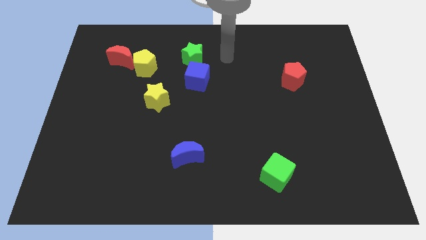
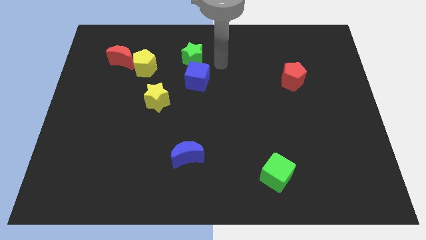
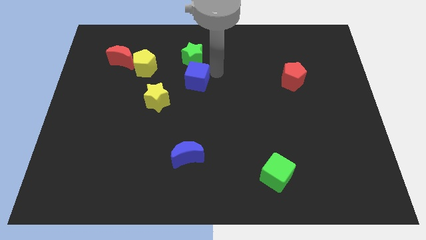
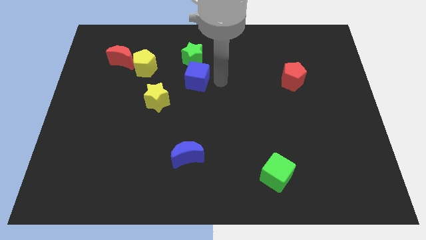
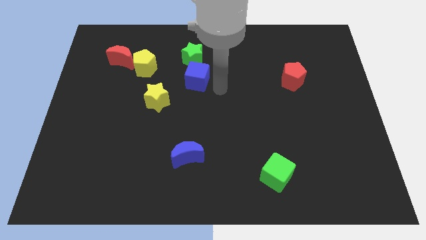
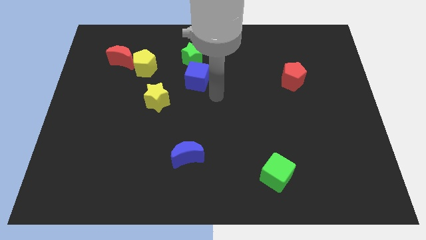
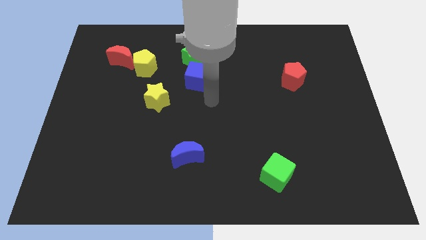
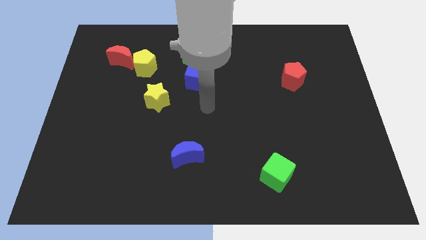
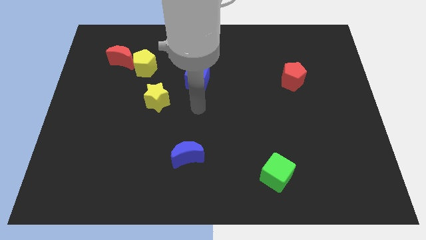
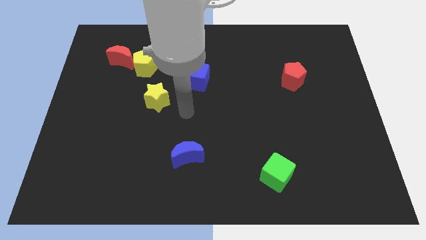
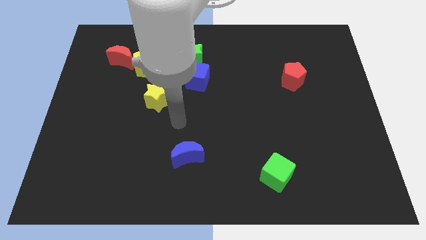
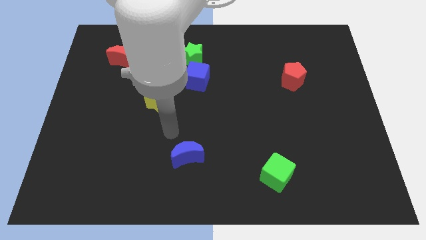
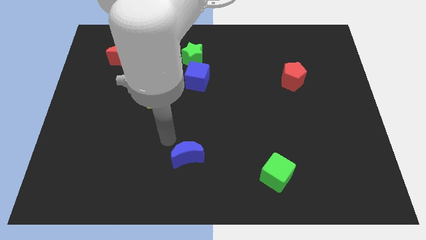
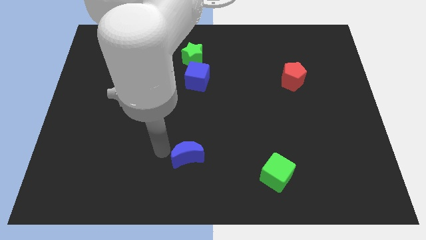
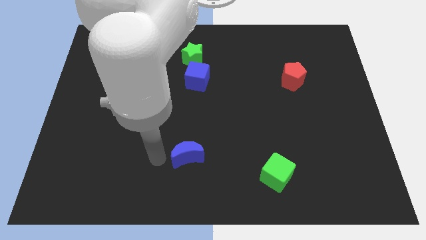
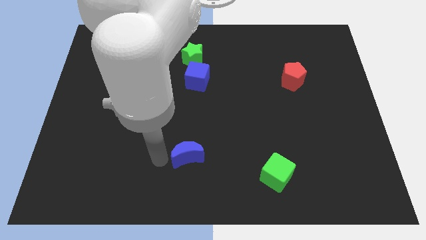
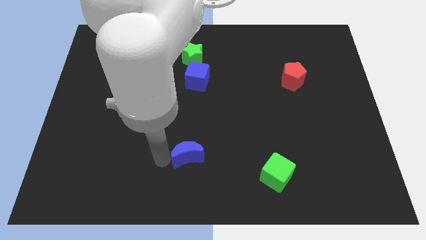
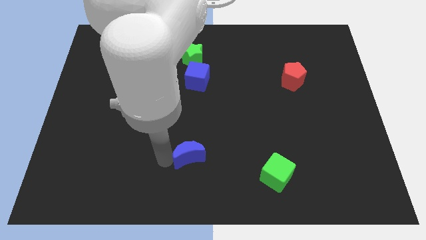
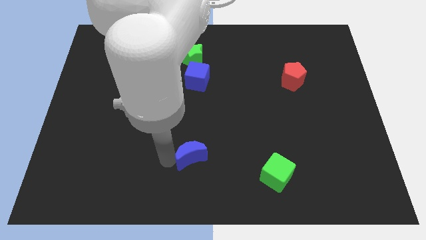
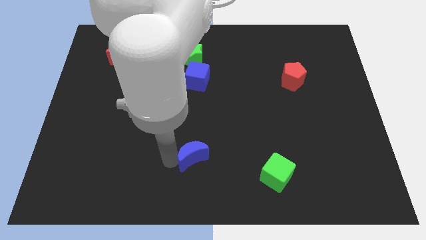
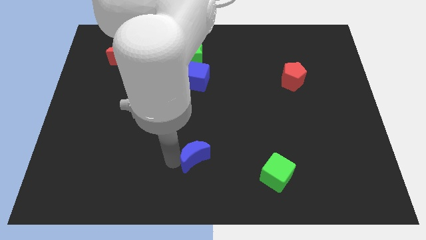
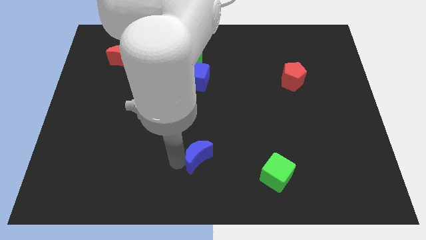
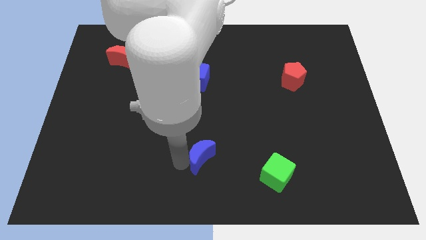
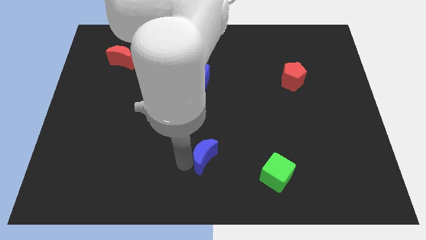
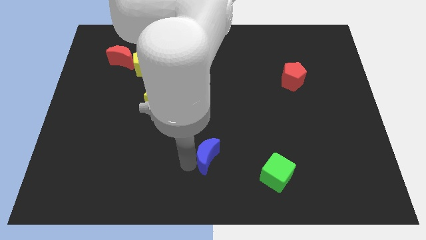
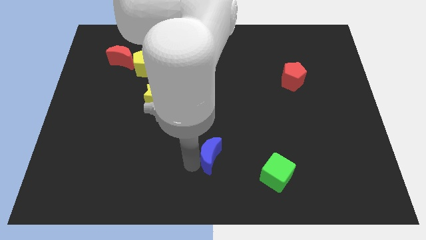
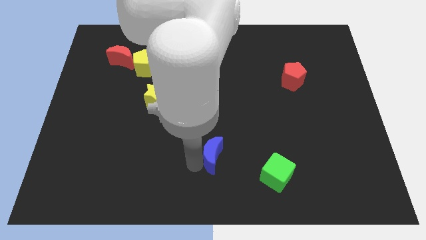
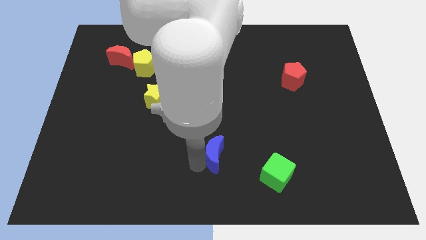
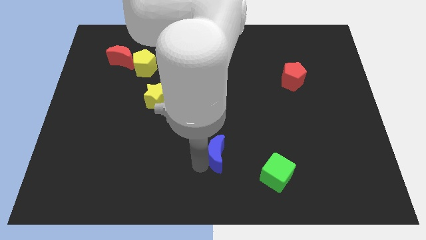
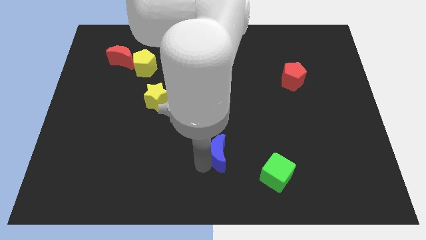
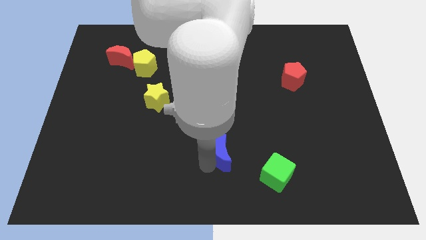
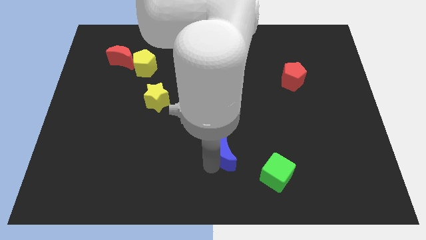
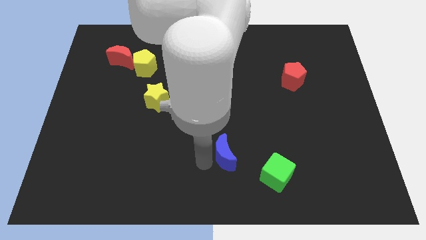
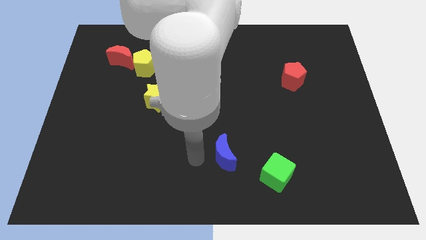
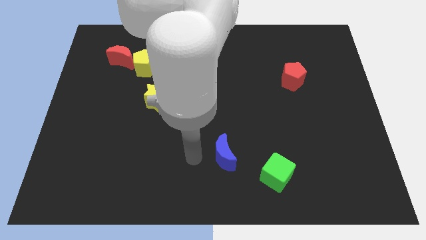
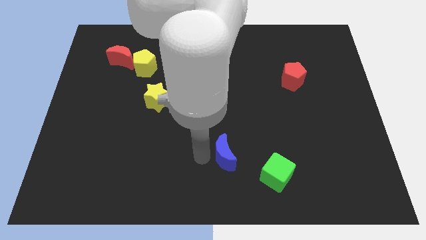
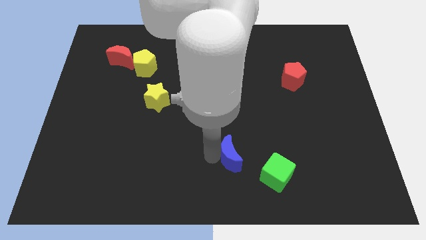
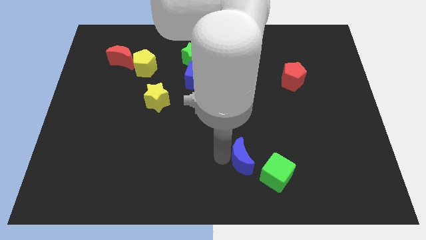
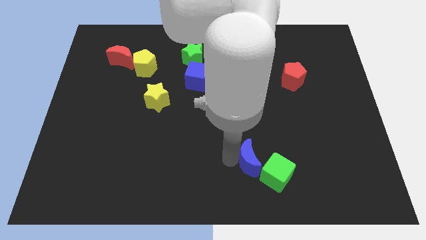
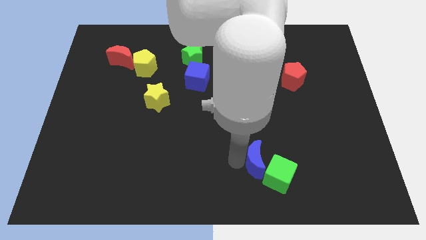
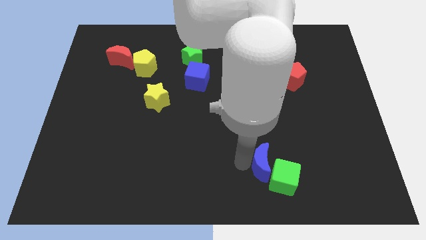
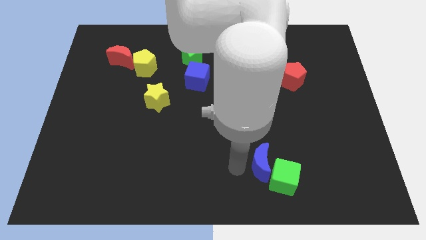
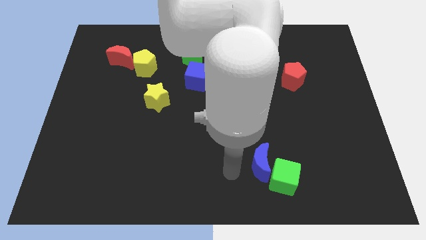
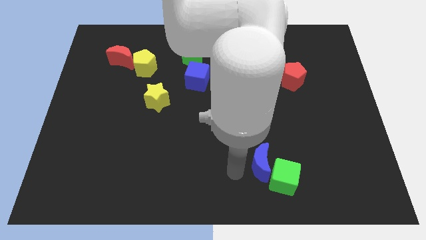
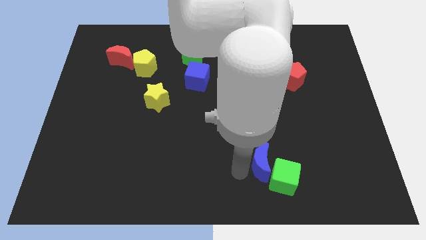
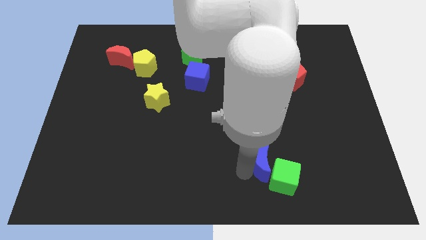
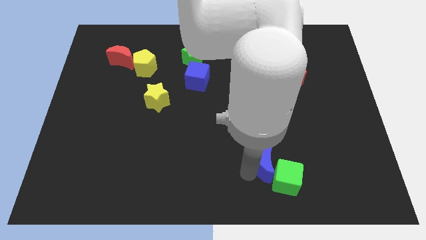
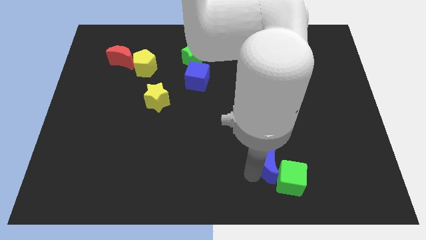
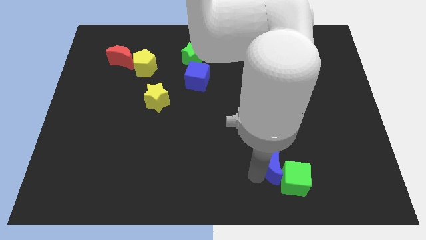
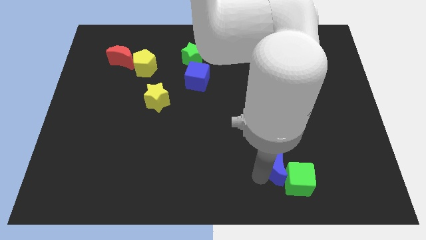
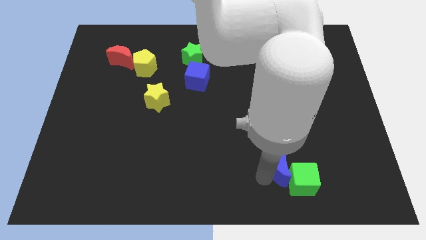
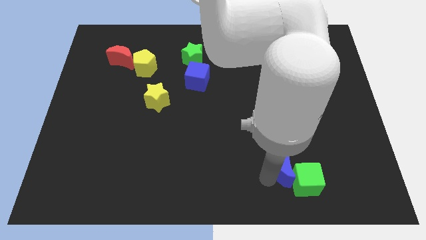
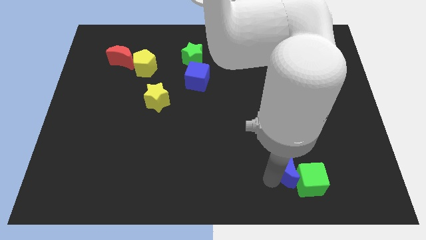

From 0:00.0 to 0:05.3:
push the blue moon right

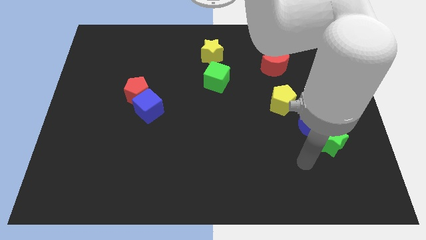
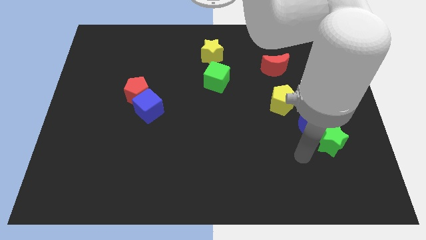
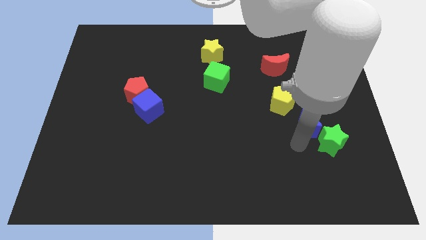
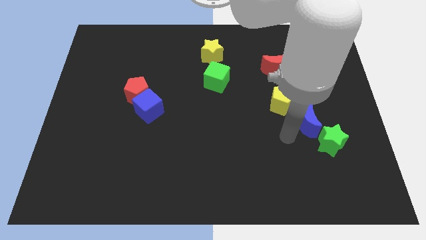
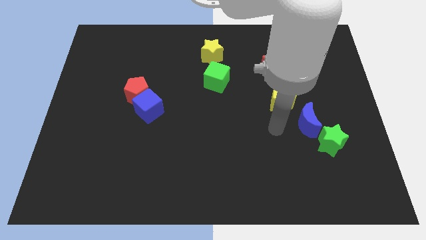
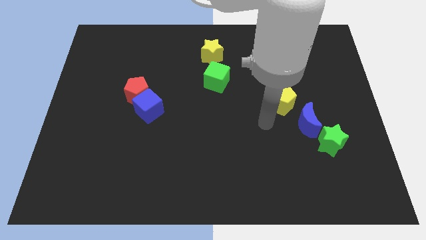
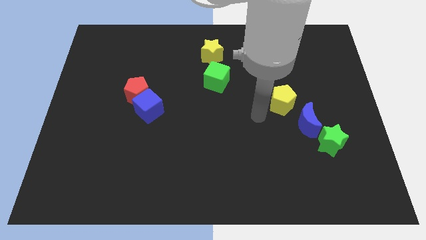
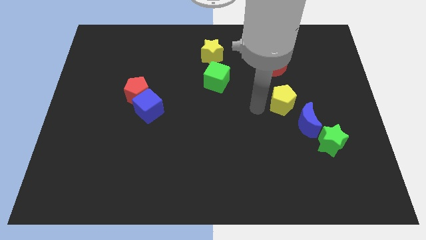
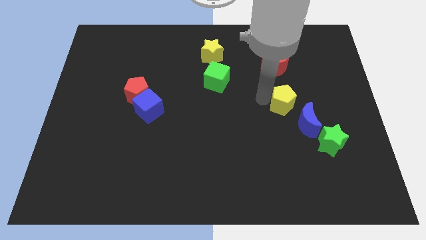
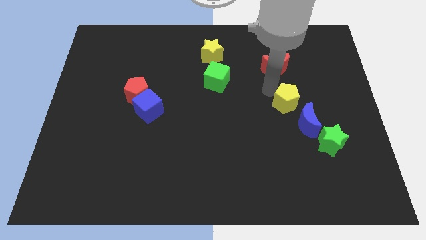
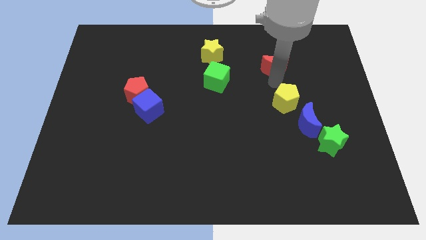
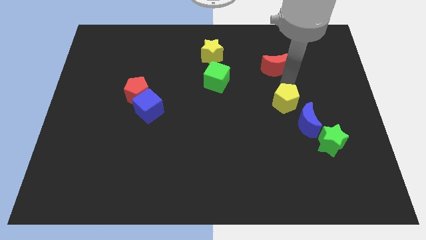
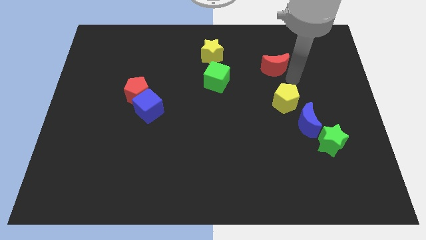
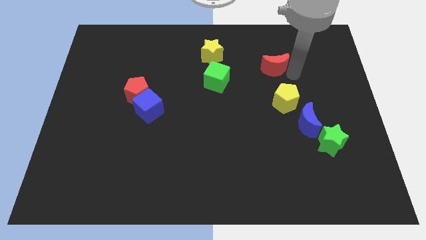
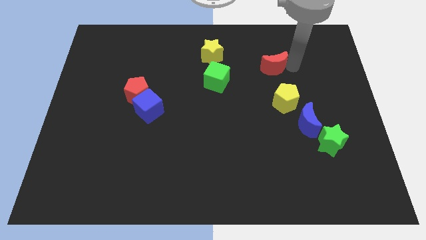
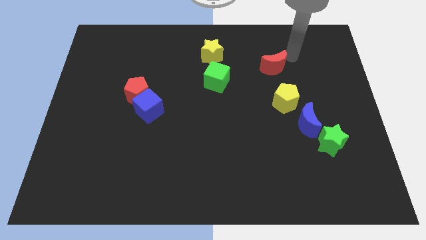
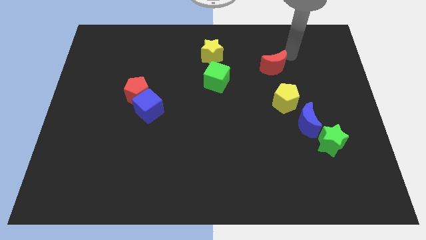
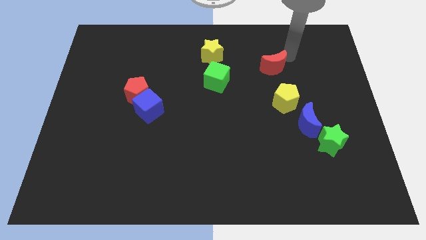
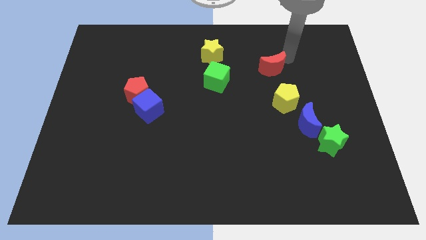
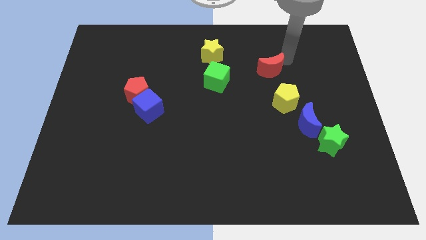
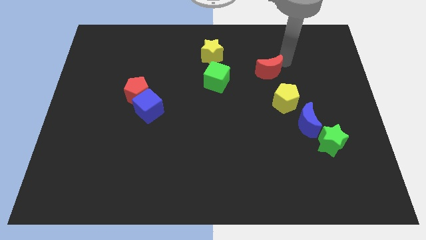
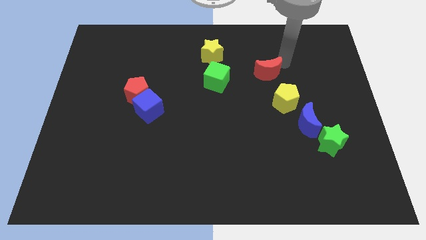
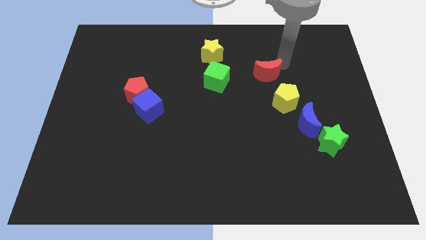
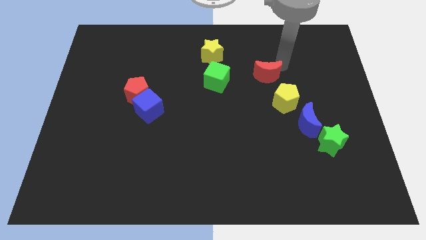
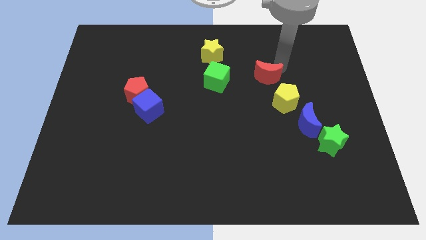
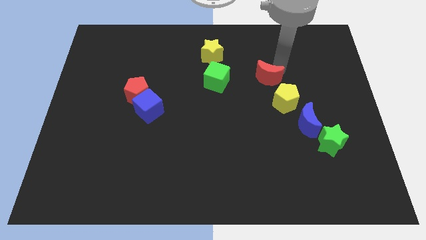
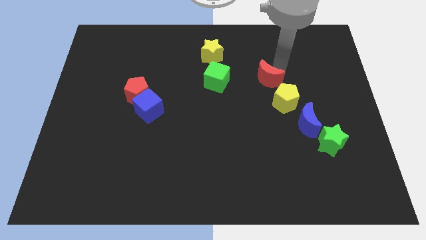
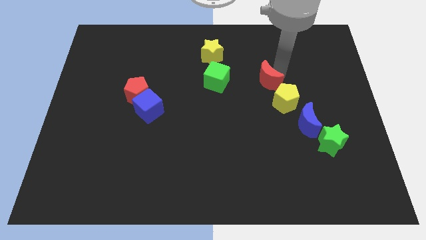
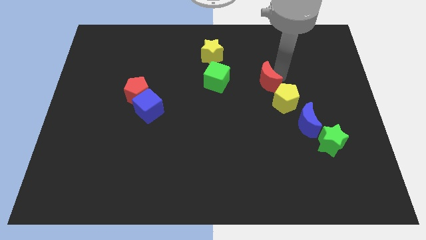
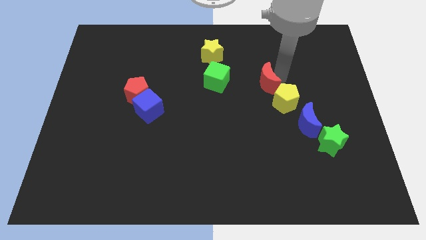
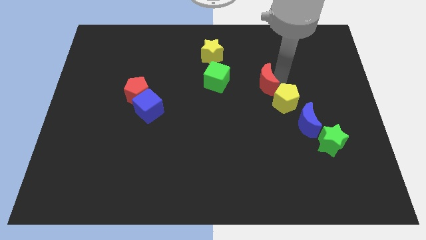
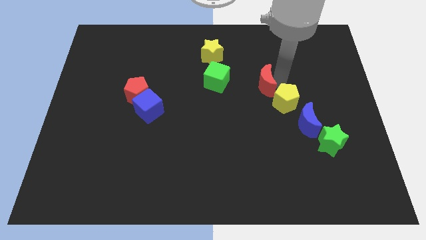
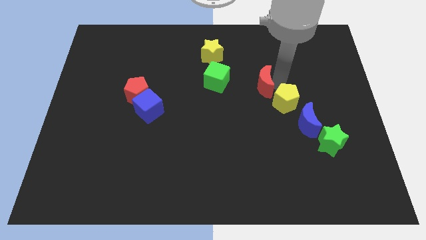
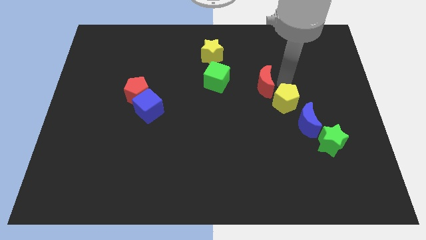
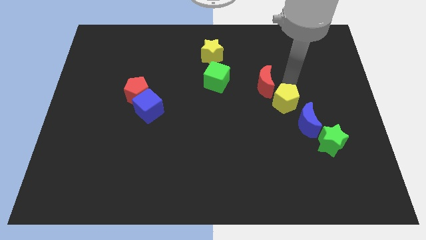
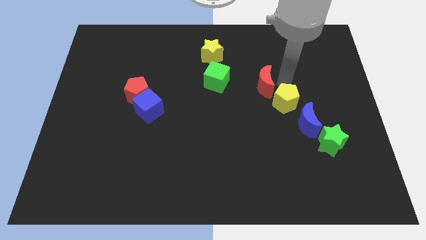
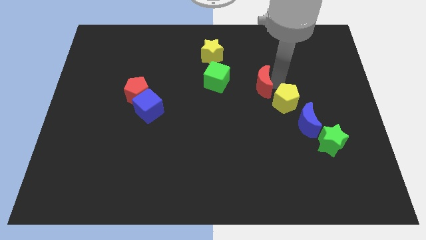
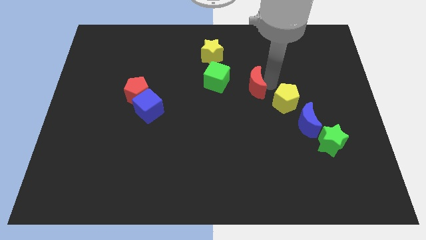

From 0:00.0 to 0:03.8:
slightly push the red moon downwards and to the left diagonally
